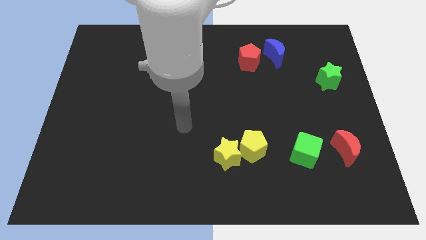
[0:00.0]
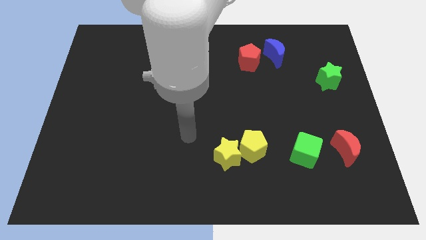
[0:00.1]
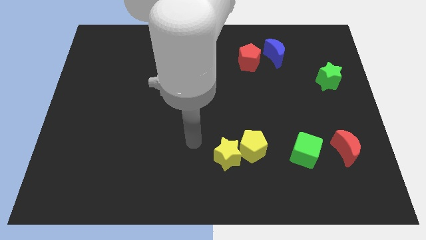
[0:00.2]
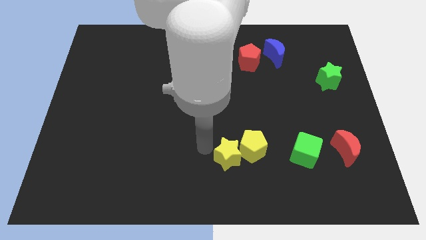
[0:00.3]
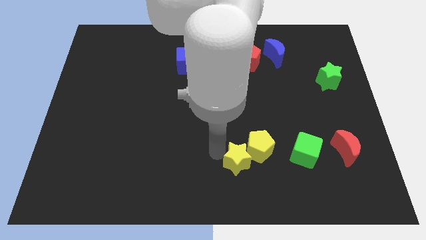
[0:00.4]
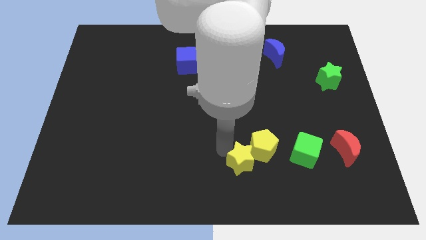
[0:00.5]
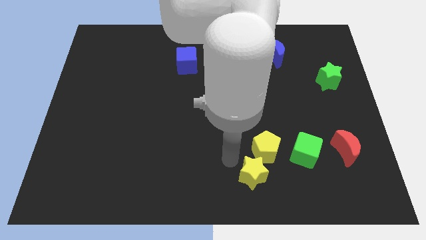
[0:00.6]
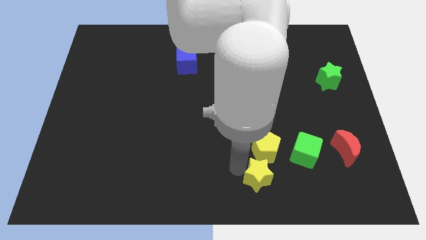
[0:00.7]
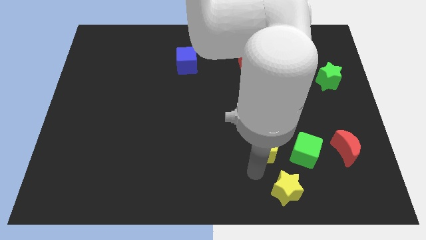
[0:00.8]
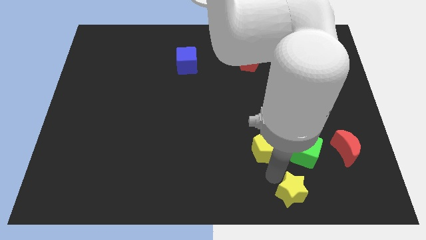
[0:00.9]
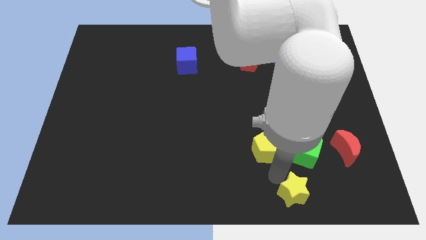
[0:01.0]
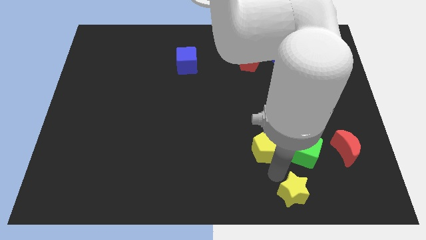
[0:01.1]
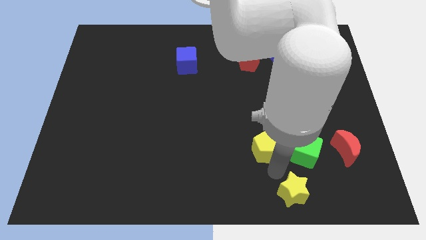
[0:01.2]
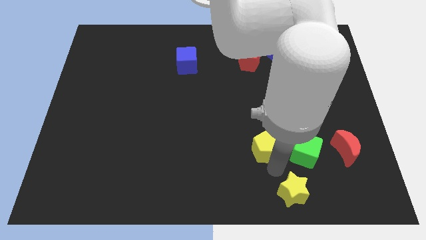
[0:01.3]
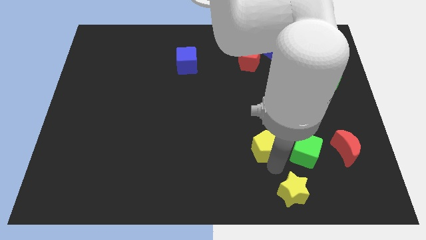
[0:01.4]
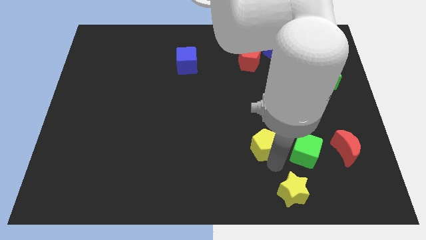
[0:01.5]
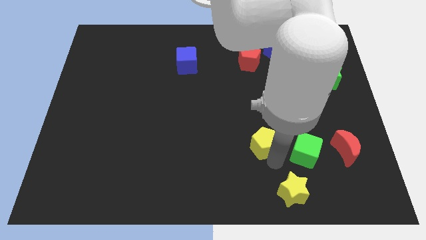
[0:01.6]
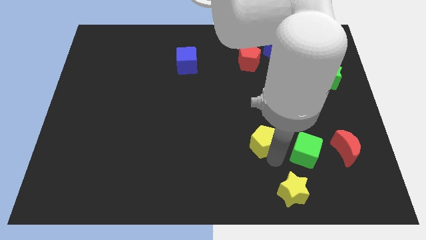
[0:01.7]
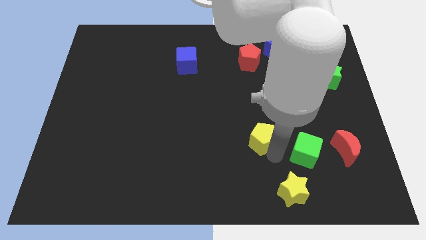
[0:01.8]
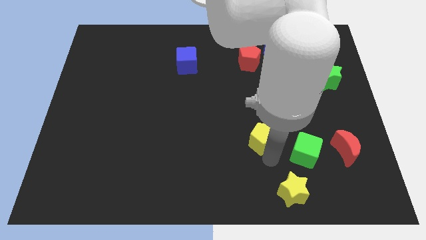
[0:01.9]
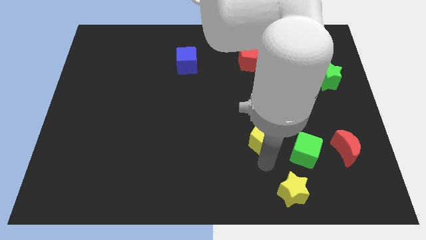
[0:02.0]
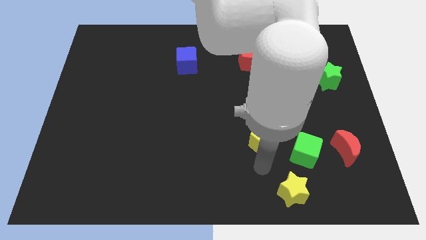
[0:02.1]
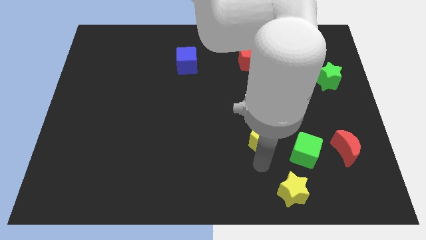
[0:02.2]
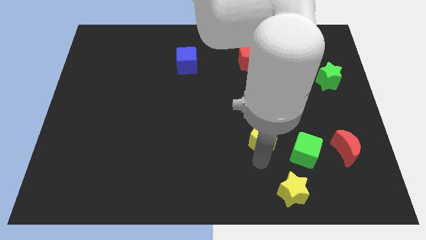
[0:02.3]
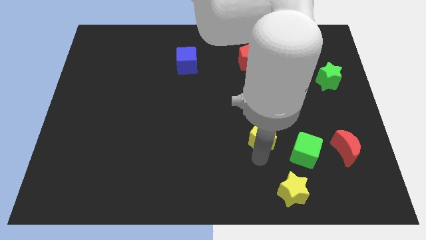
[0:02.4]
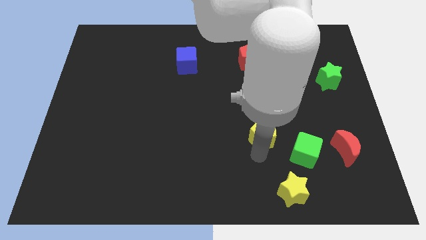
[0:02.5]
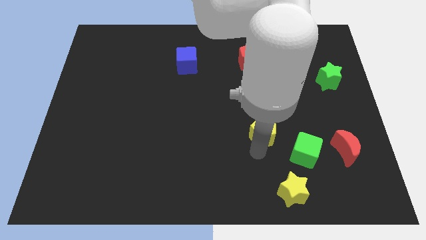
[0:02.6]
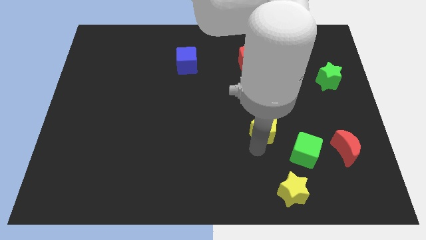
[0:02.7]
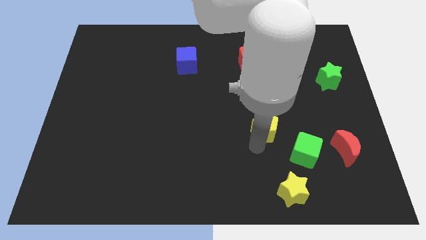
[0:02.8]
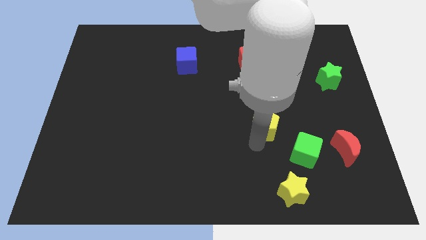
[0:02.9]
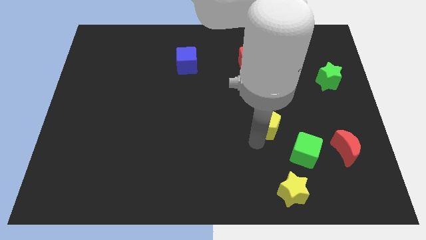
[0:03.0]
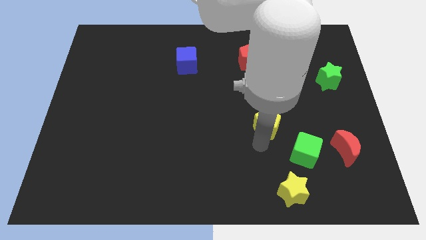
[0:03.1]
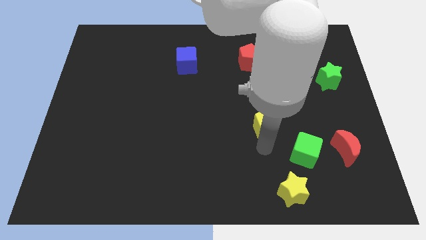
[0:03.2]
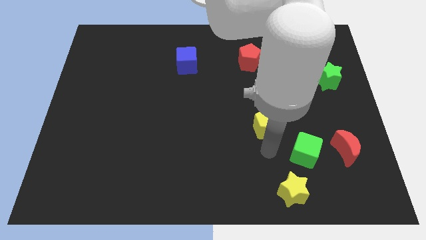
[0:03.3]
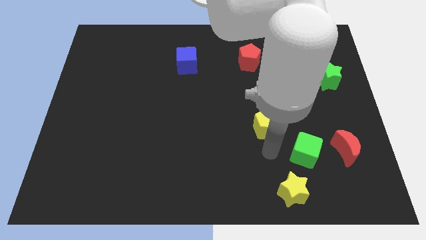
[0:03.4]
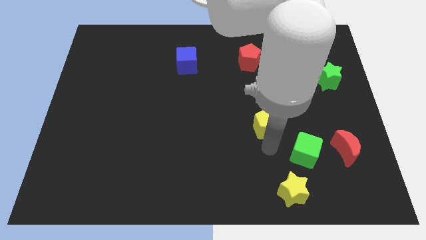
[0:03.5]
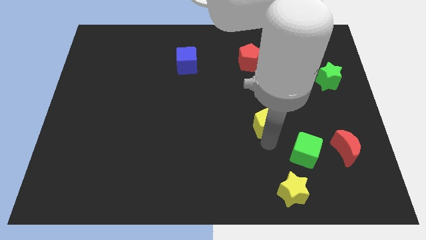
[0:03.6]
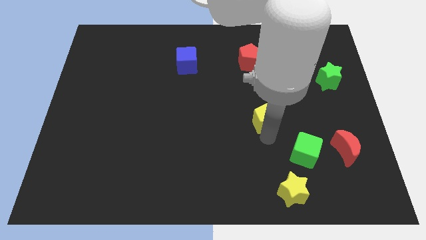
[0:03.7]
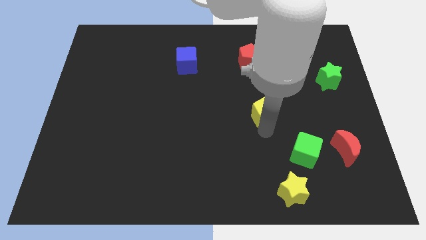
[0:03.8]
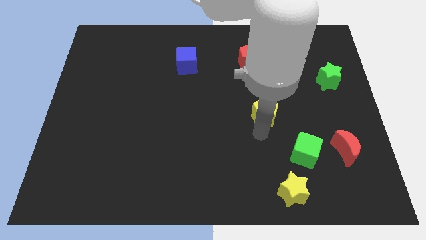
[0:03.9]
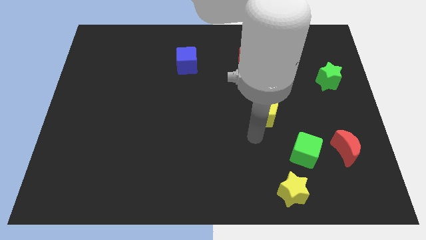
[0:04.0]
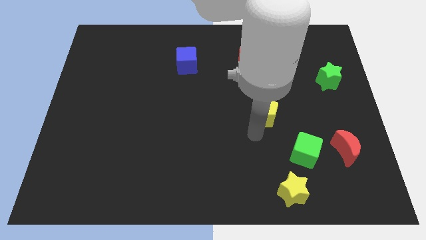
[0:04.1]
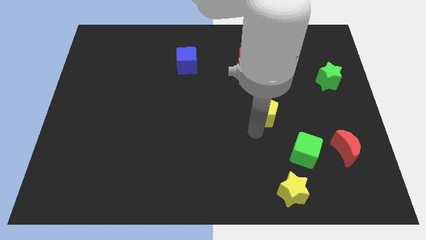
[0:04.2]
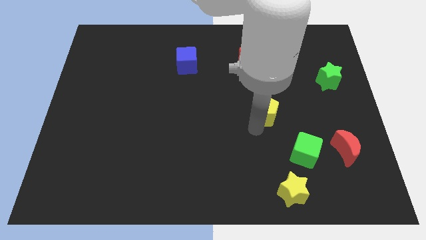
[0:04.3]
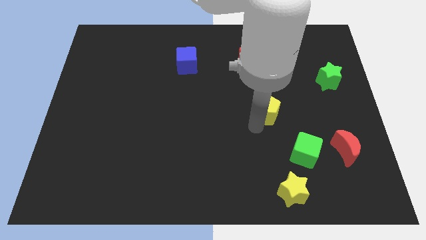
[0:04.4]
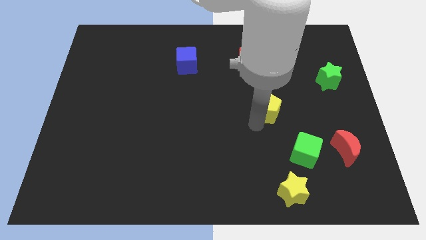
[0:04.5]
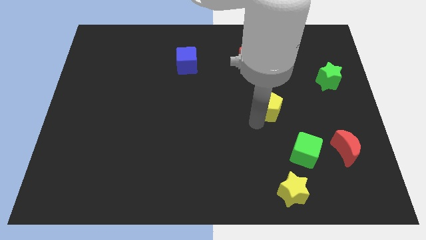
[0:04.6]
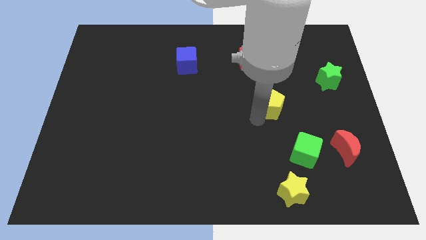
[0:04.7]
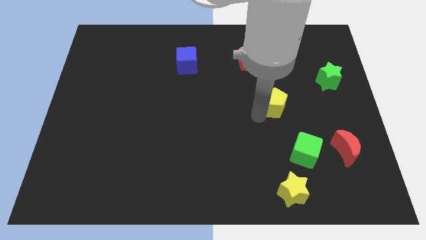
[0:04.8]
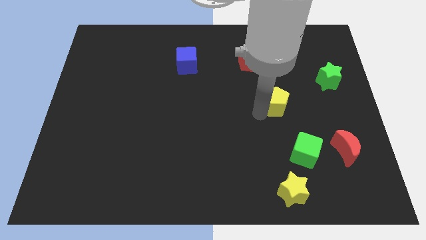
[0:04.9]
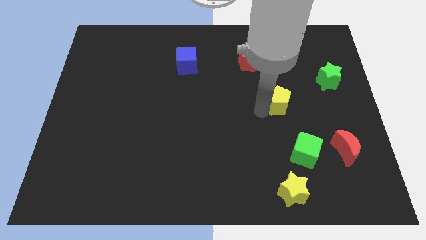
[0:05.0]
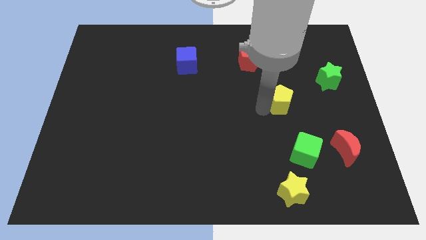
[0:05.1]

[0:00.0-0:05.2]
move the yellow pentagon to the bottom of the blue moon
